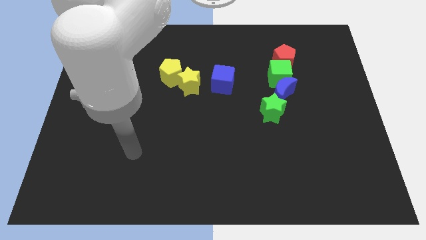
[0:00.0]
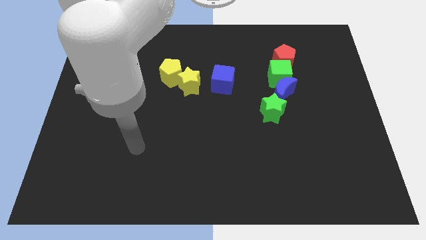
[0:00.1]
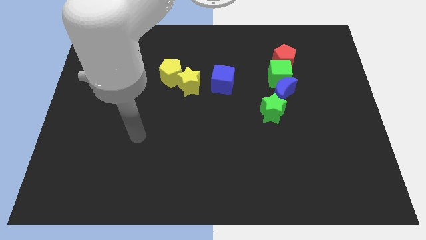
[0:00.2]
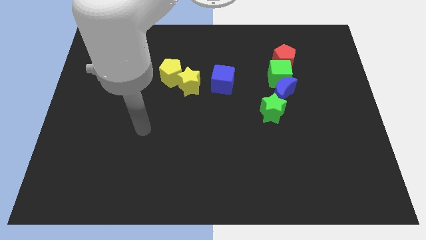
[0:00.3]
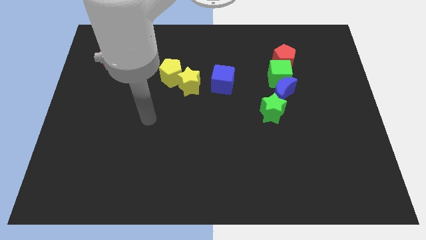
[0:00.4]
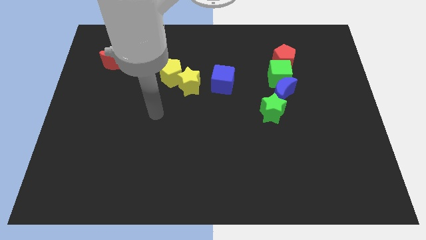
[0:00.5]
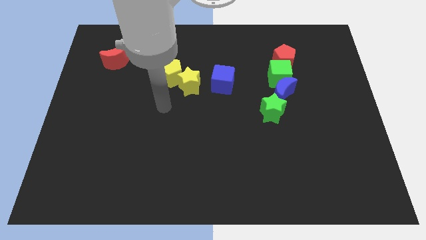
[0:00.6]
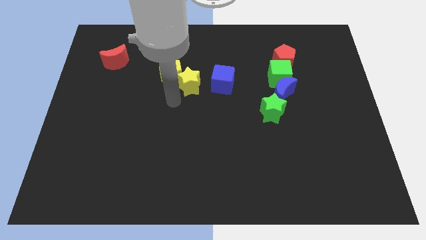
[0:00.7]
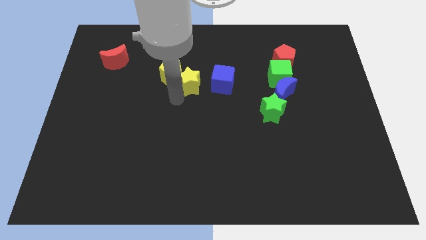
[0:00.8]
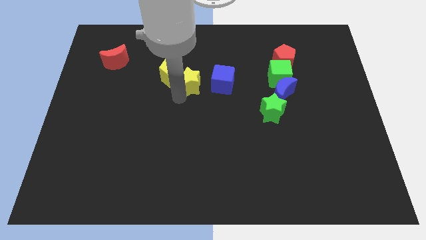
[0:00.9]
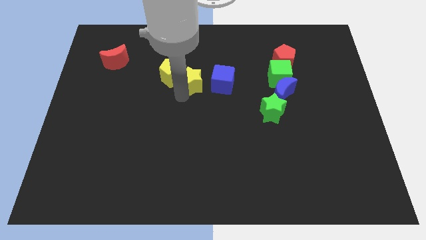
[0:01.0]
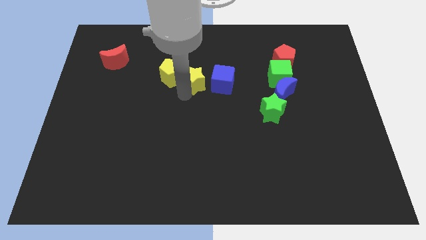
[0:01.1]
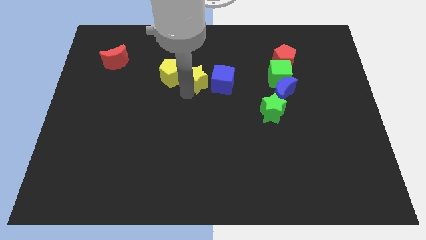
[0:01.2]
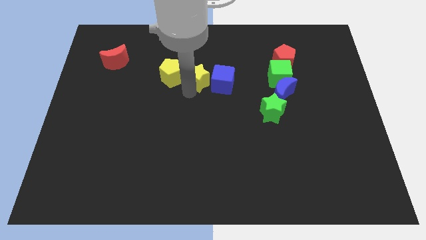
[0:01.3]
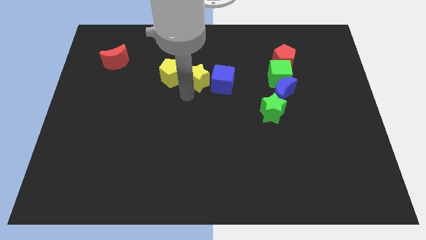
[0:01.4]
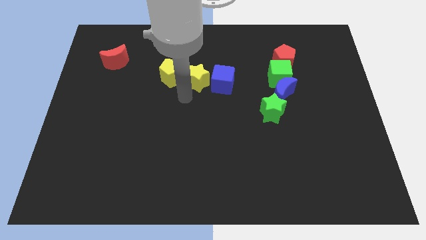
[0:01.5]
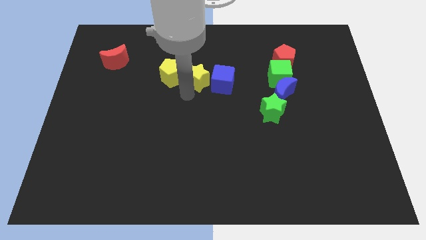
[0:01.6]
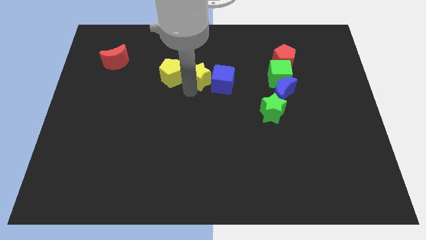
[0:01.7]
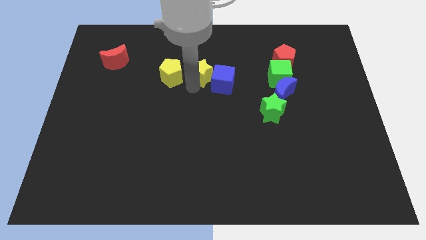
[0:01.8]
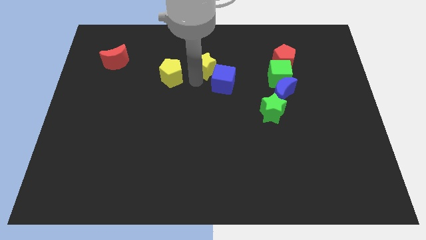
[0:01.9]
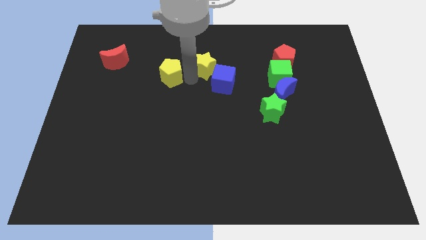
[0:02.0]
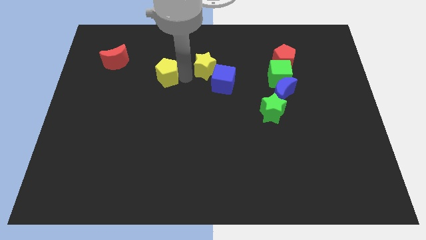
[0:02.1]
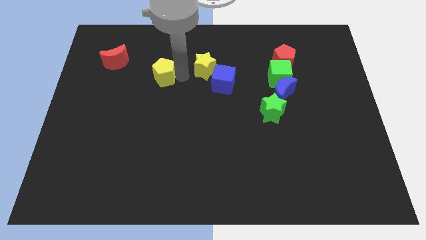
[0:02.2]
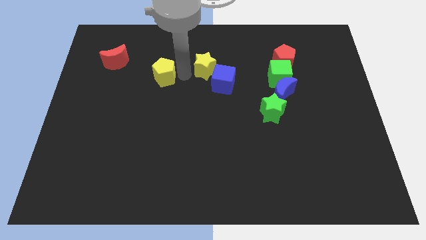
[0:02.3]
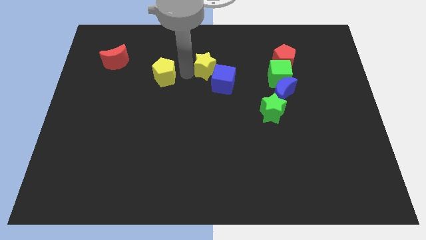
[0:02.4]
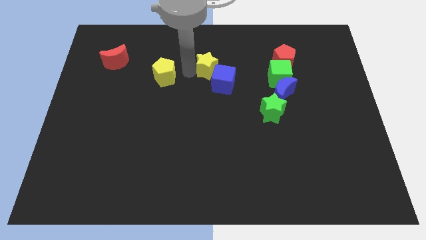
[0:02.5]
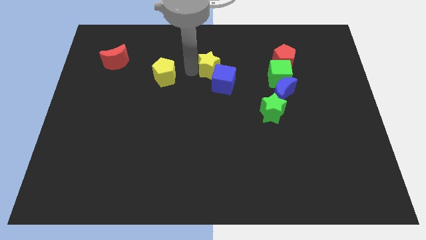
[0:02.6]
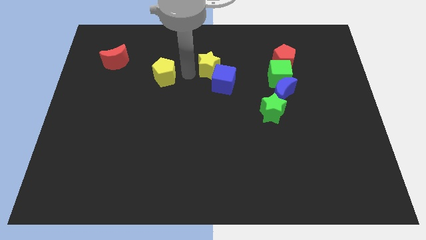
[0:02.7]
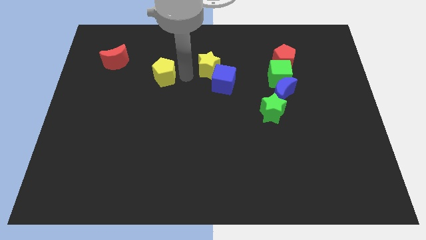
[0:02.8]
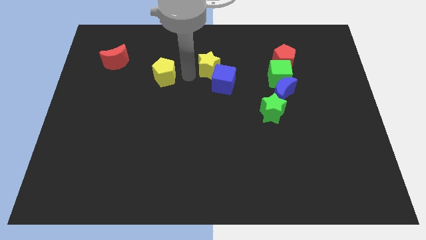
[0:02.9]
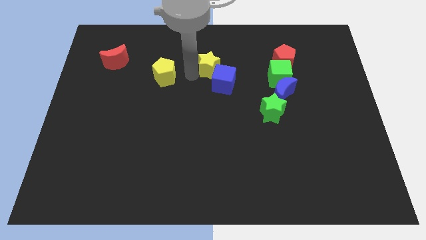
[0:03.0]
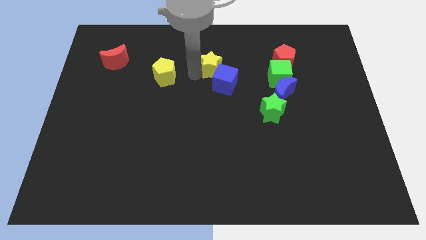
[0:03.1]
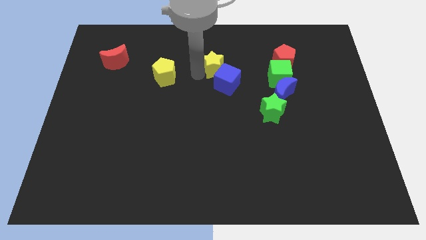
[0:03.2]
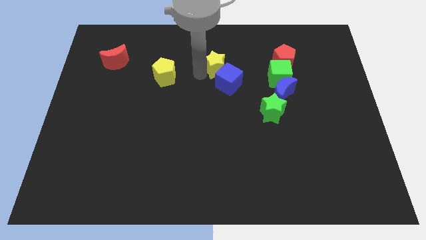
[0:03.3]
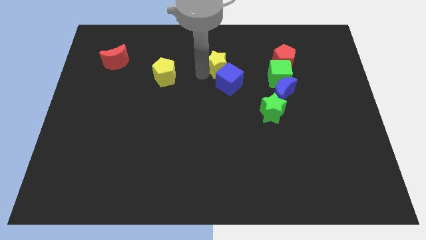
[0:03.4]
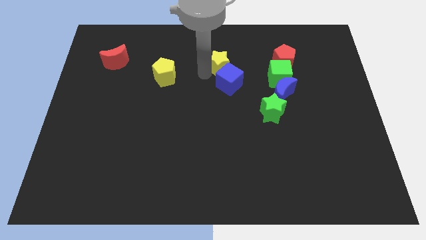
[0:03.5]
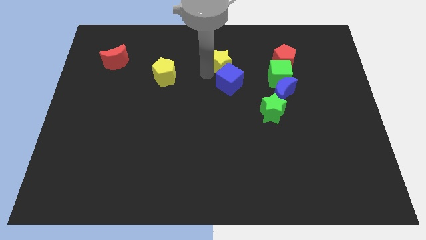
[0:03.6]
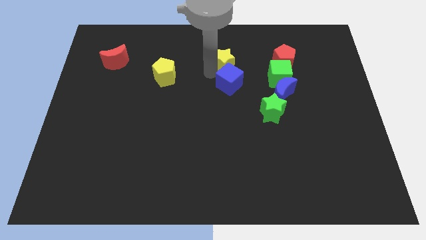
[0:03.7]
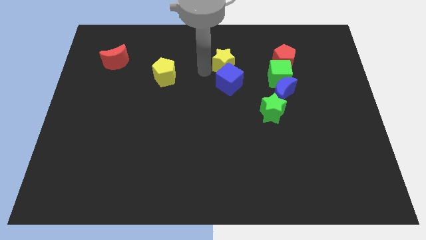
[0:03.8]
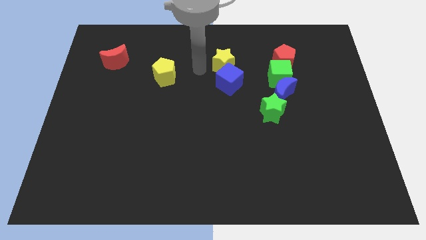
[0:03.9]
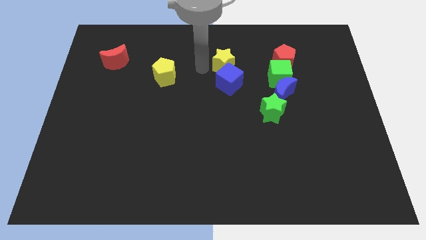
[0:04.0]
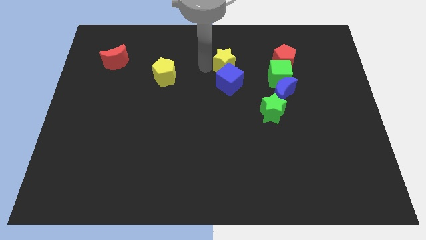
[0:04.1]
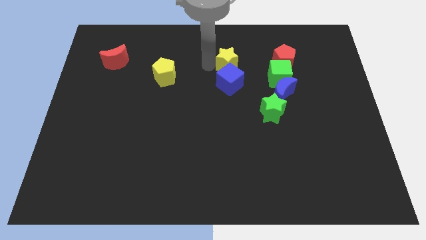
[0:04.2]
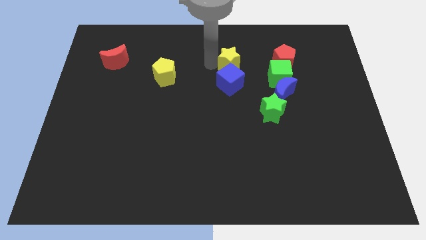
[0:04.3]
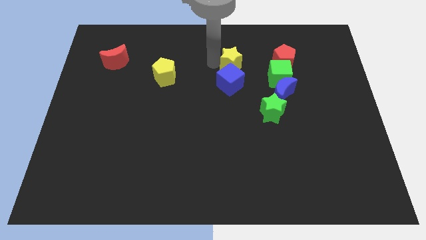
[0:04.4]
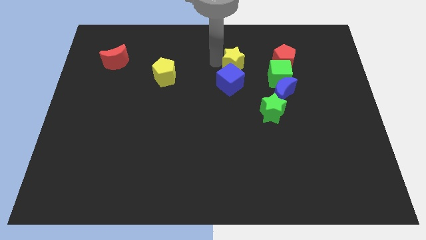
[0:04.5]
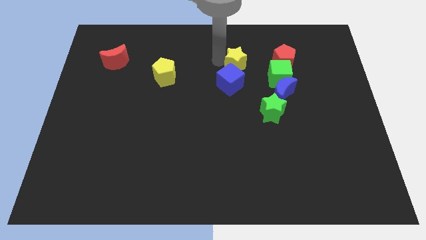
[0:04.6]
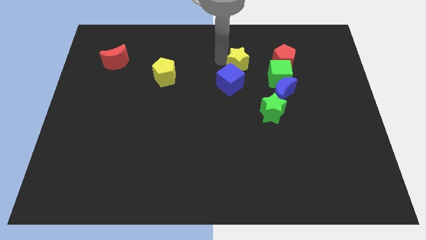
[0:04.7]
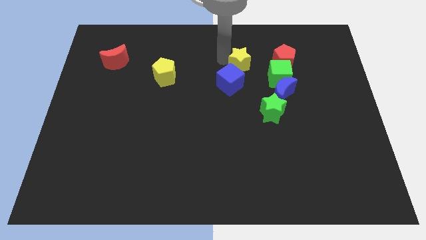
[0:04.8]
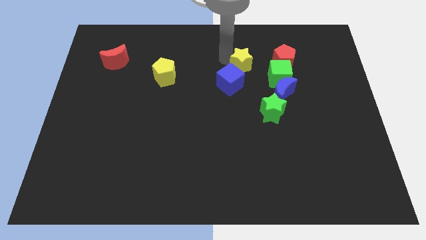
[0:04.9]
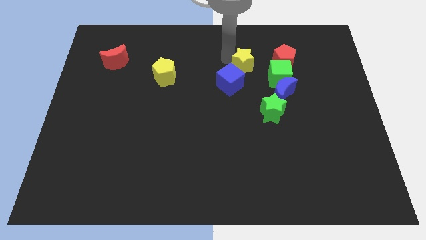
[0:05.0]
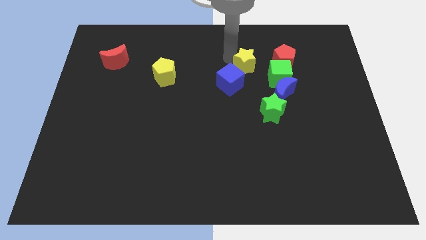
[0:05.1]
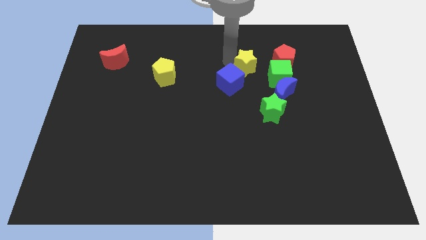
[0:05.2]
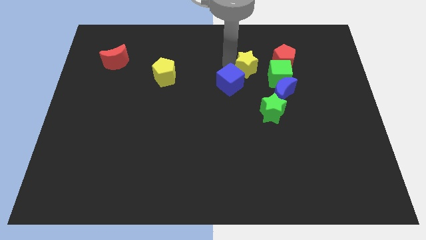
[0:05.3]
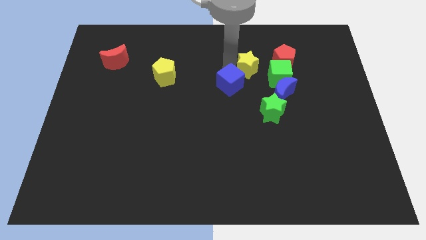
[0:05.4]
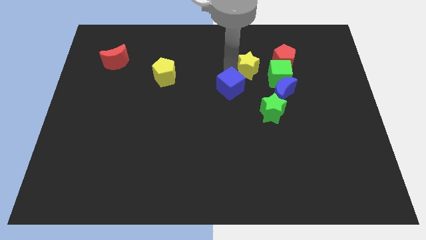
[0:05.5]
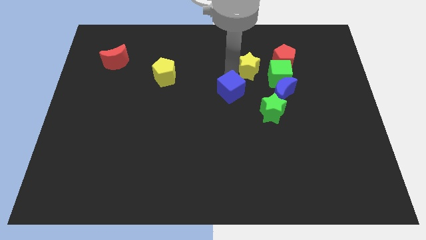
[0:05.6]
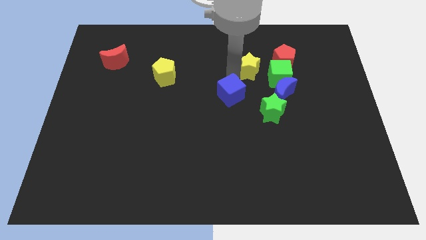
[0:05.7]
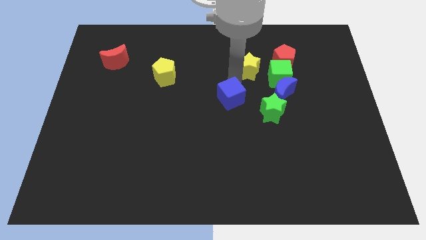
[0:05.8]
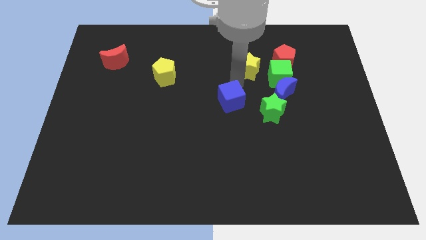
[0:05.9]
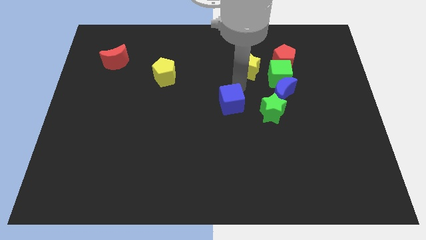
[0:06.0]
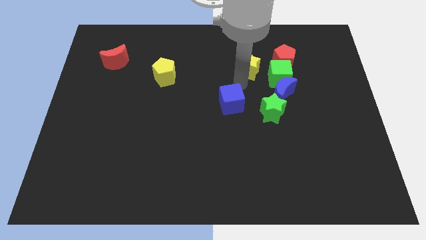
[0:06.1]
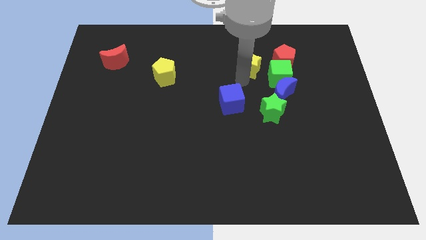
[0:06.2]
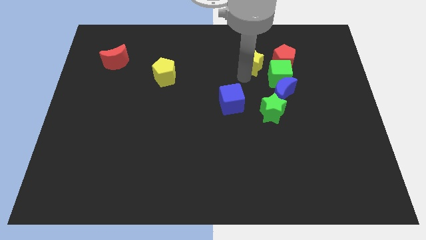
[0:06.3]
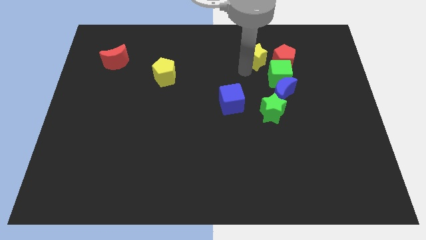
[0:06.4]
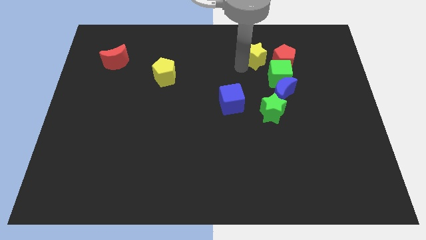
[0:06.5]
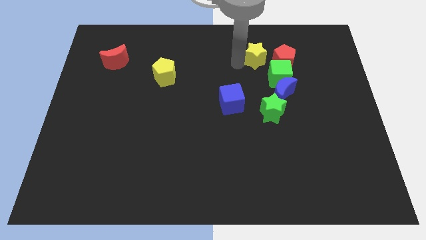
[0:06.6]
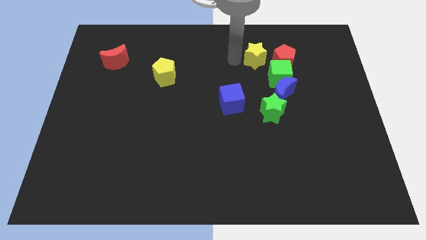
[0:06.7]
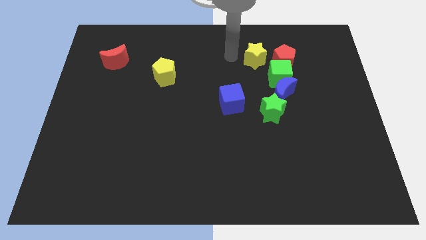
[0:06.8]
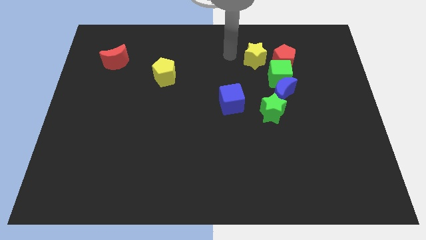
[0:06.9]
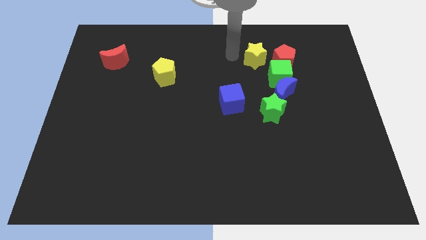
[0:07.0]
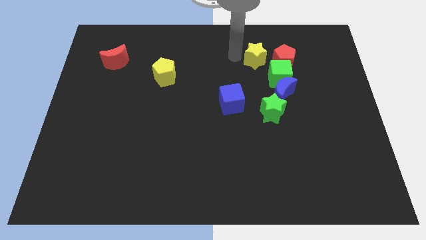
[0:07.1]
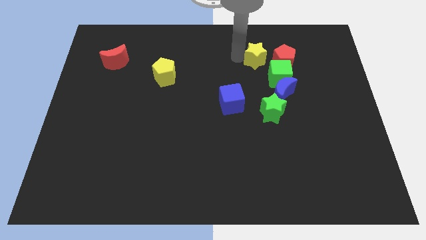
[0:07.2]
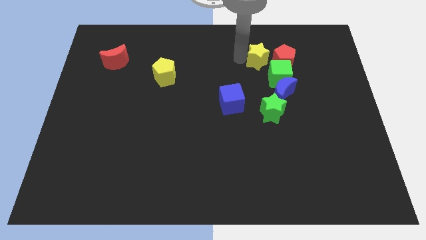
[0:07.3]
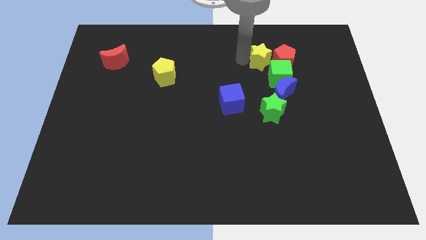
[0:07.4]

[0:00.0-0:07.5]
slide the yellow star next to the red pentagon
